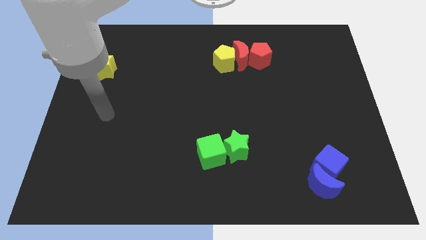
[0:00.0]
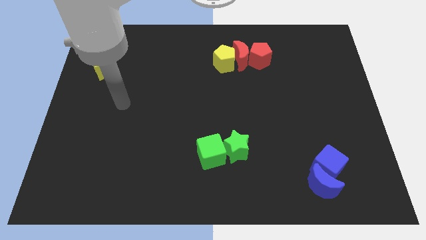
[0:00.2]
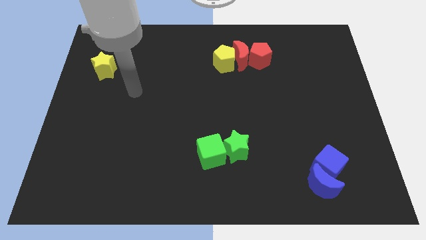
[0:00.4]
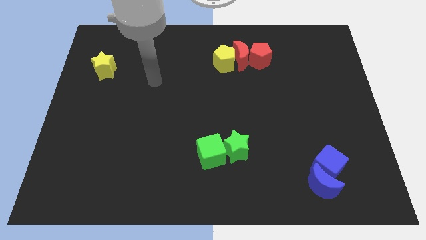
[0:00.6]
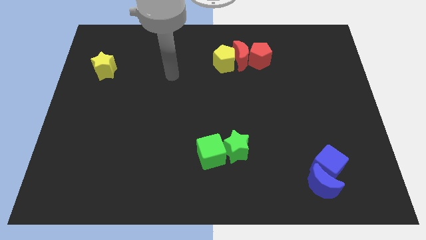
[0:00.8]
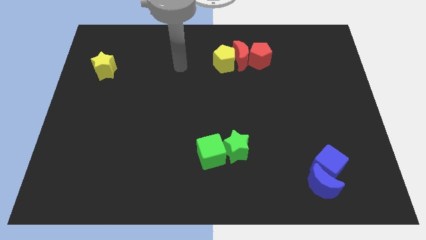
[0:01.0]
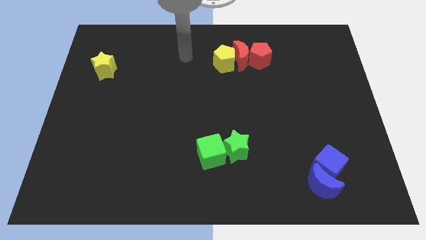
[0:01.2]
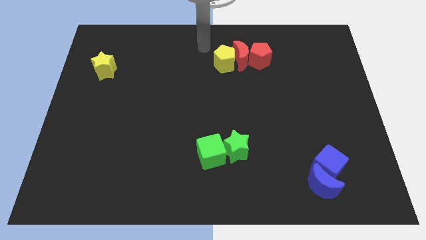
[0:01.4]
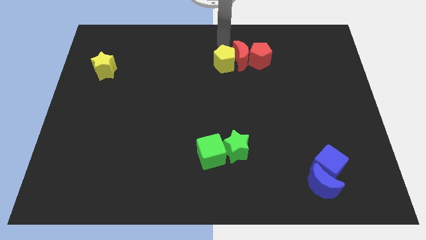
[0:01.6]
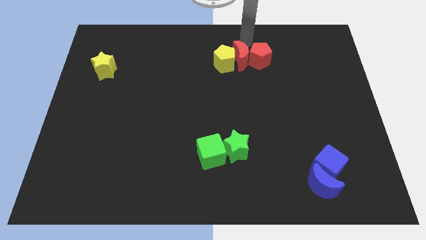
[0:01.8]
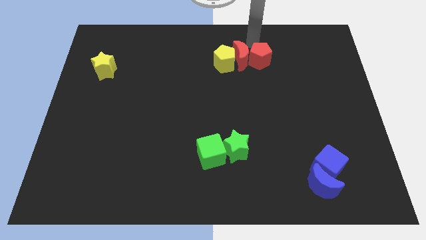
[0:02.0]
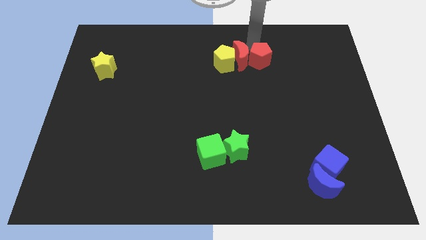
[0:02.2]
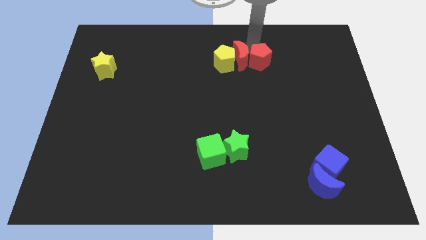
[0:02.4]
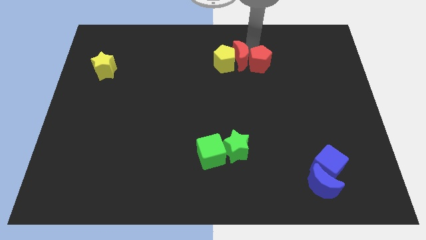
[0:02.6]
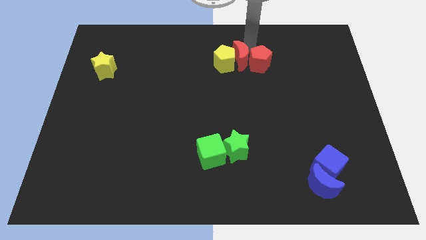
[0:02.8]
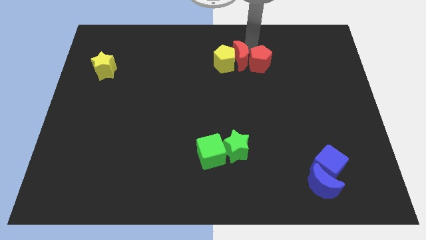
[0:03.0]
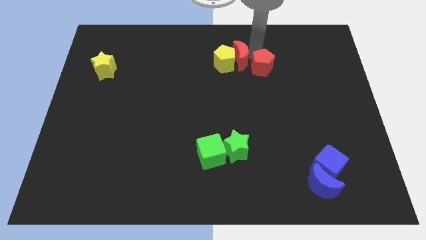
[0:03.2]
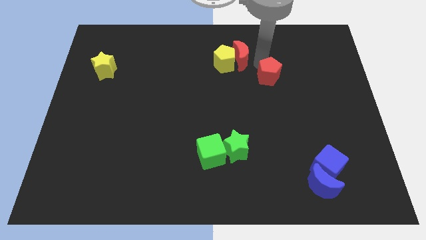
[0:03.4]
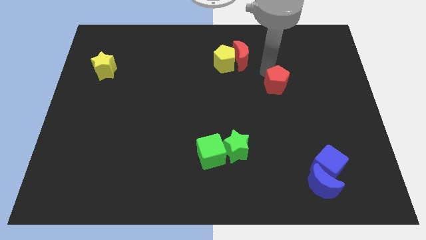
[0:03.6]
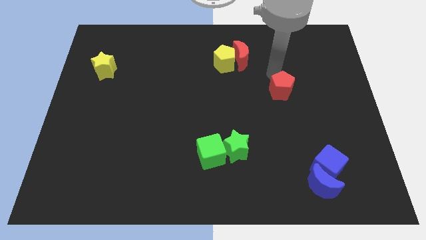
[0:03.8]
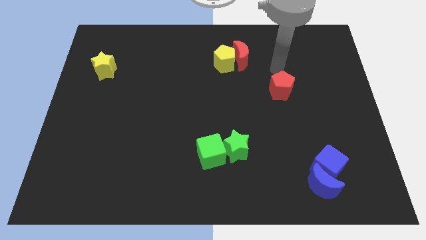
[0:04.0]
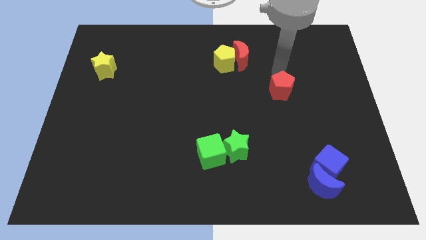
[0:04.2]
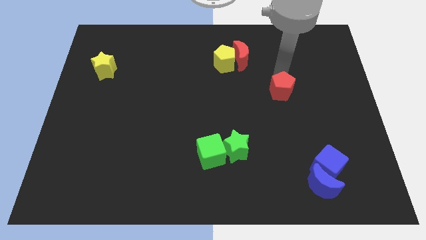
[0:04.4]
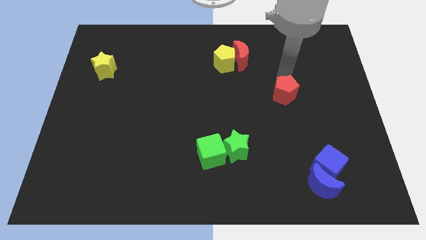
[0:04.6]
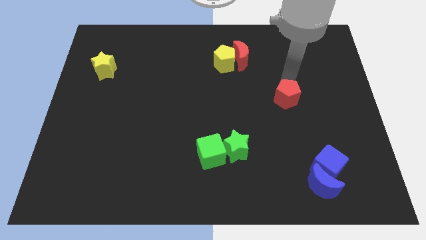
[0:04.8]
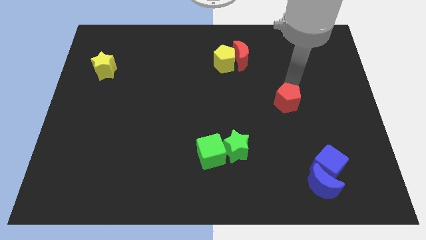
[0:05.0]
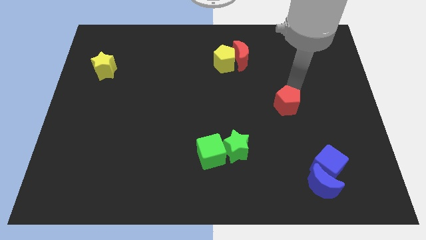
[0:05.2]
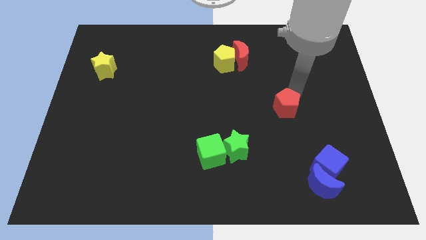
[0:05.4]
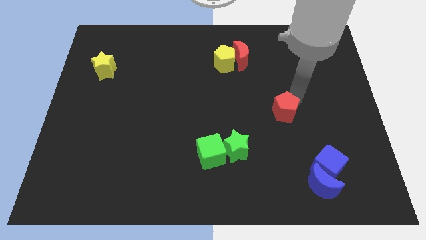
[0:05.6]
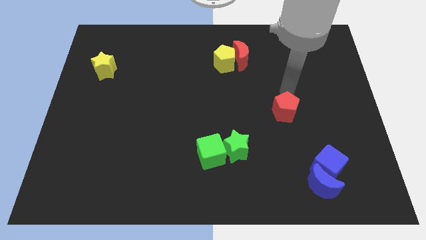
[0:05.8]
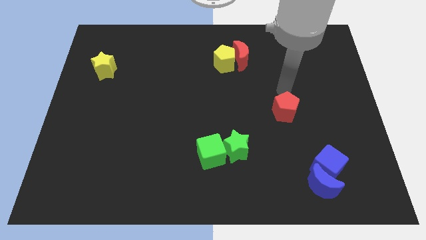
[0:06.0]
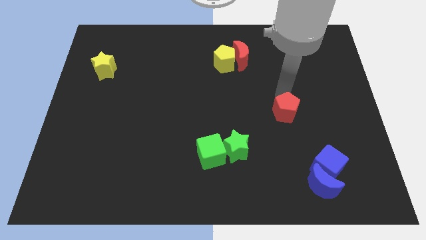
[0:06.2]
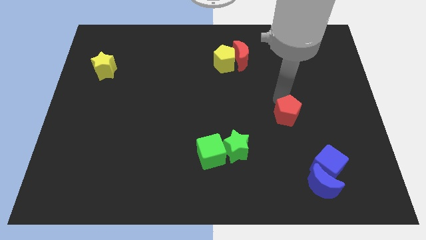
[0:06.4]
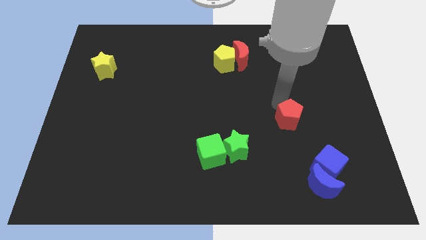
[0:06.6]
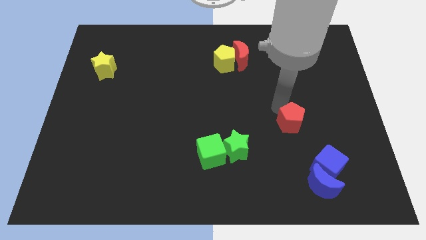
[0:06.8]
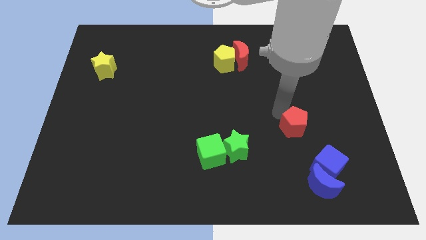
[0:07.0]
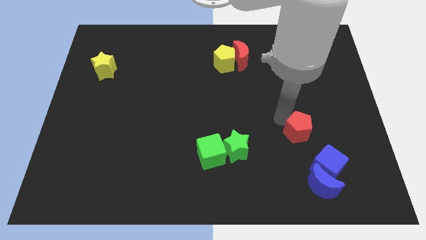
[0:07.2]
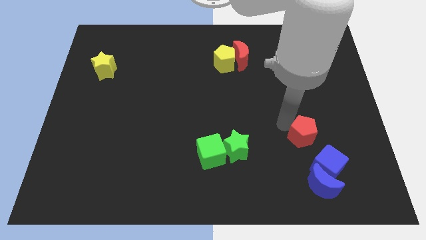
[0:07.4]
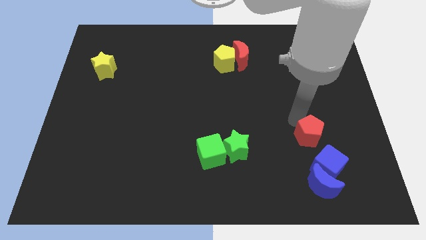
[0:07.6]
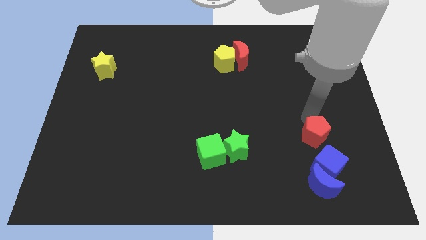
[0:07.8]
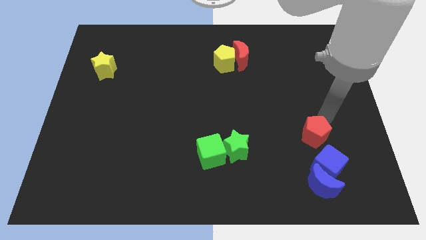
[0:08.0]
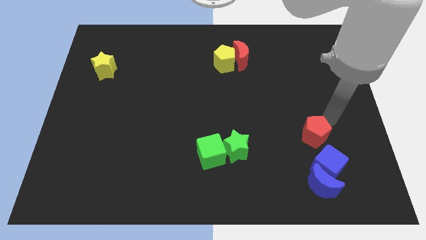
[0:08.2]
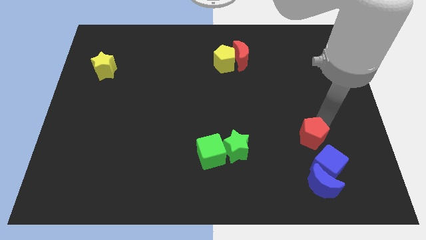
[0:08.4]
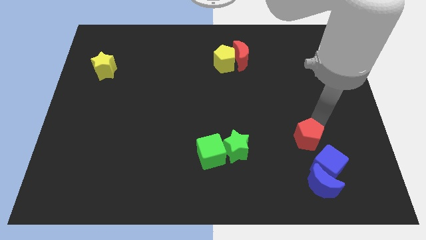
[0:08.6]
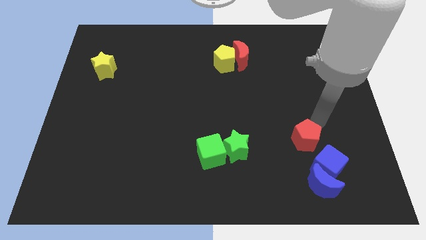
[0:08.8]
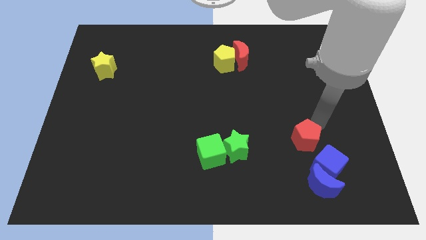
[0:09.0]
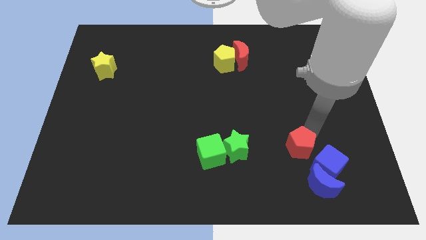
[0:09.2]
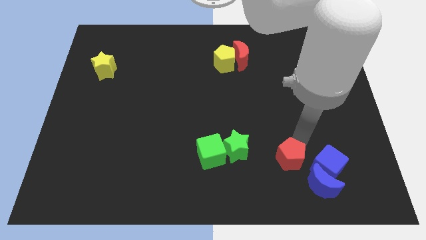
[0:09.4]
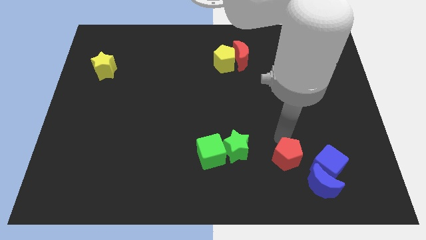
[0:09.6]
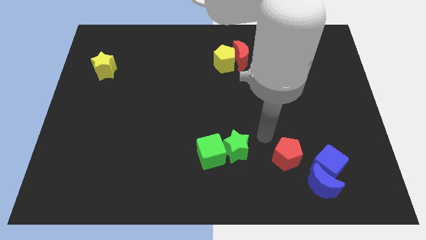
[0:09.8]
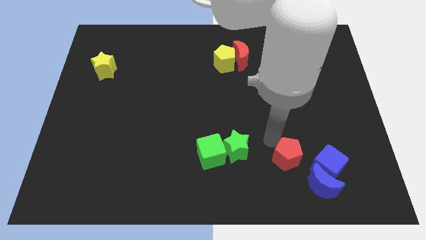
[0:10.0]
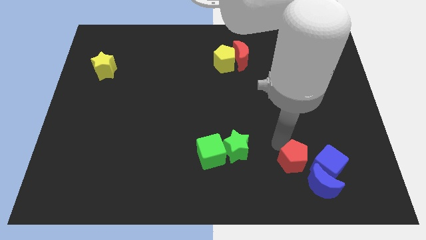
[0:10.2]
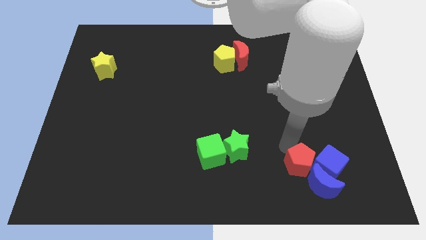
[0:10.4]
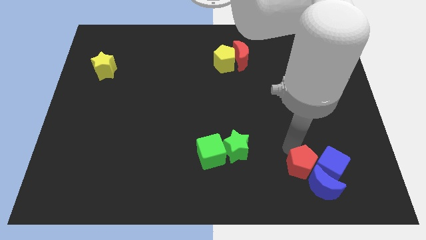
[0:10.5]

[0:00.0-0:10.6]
put the red pentagon close to the blue moon

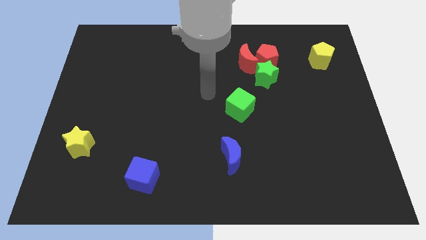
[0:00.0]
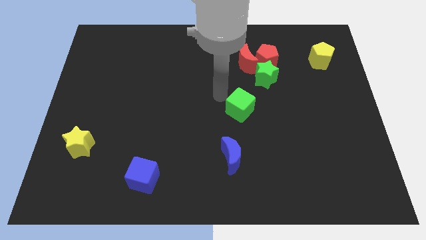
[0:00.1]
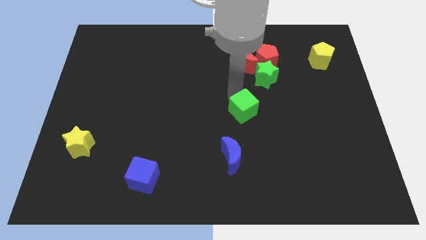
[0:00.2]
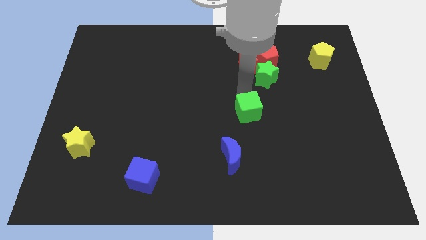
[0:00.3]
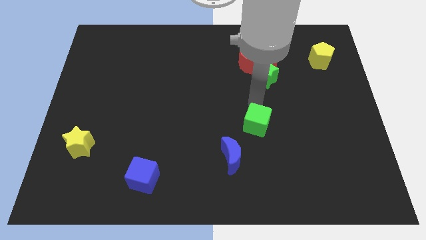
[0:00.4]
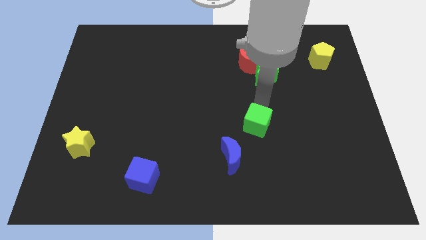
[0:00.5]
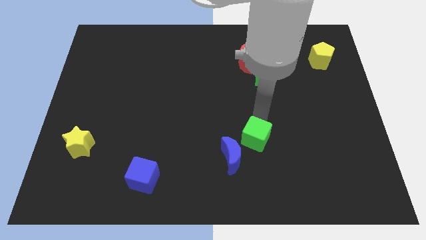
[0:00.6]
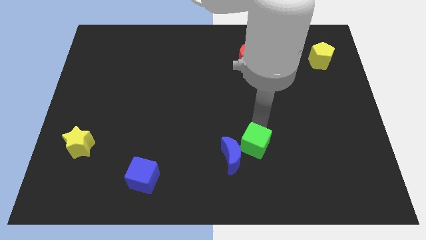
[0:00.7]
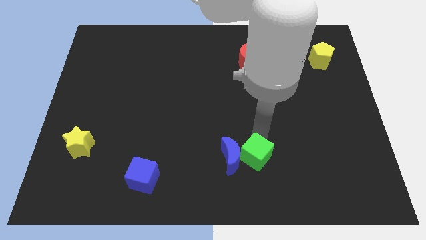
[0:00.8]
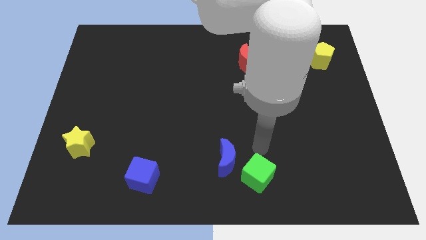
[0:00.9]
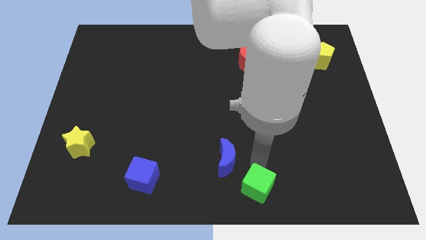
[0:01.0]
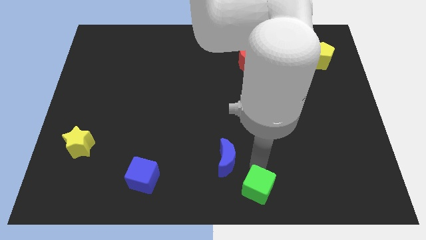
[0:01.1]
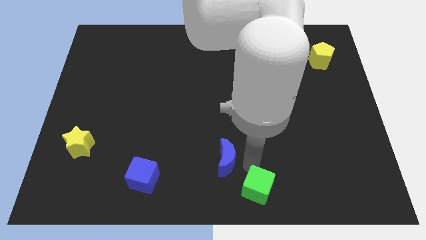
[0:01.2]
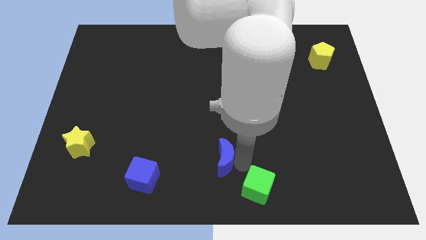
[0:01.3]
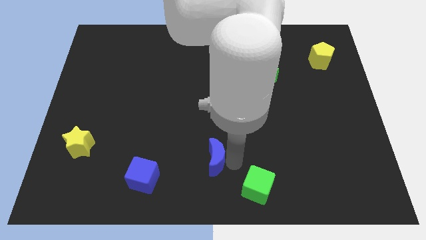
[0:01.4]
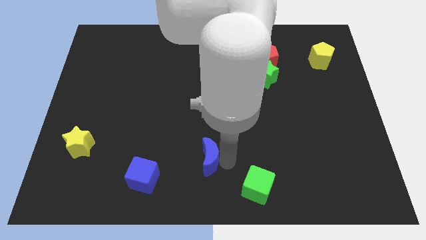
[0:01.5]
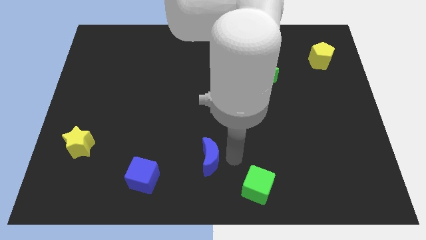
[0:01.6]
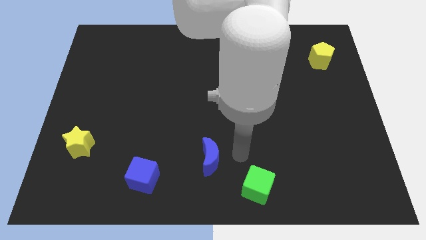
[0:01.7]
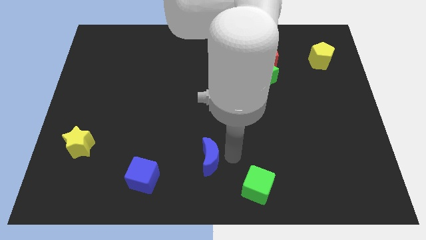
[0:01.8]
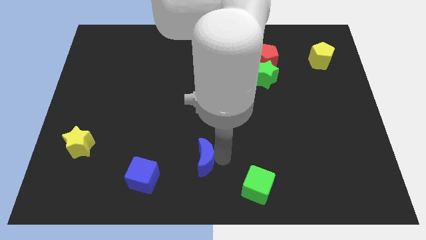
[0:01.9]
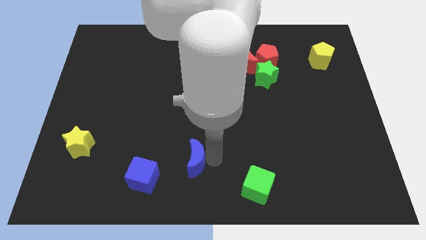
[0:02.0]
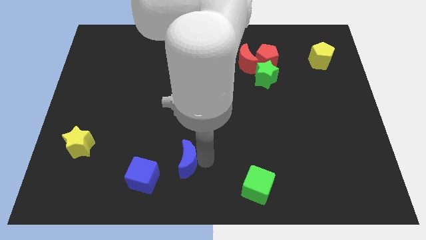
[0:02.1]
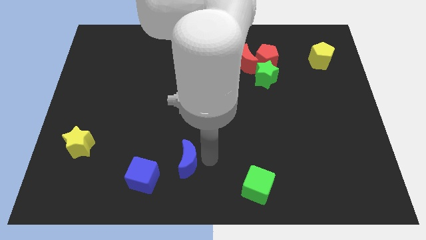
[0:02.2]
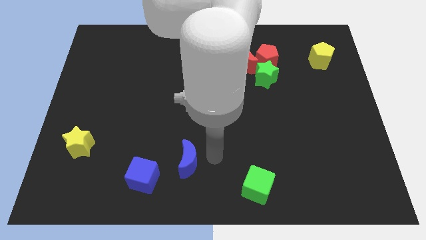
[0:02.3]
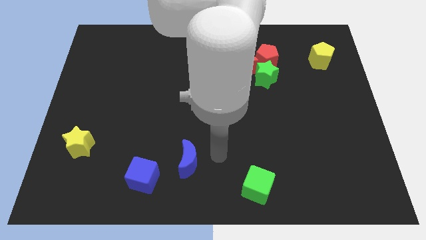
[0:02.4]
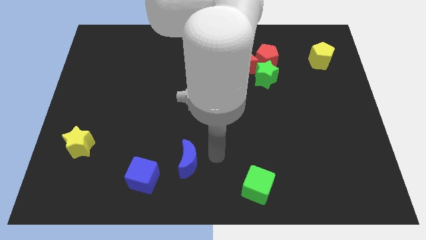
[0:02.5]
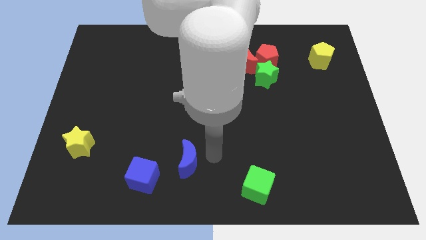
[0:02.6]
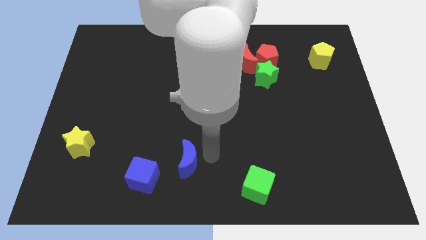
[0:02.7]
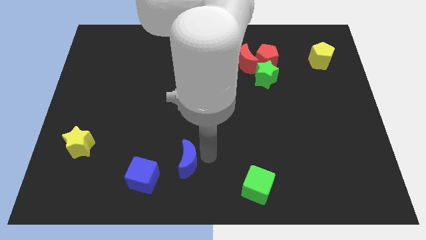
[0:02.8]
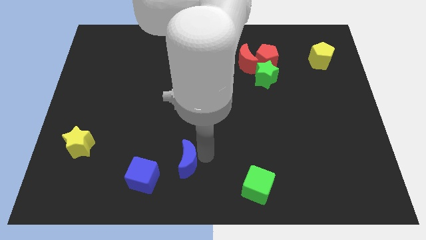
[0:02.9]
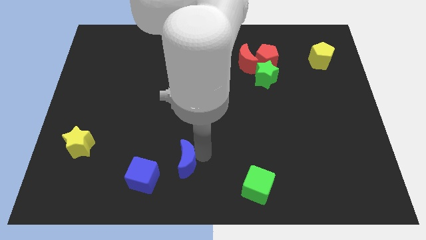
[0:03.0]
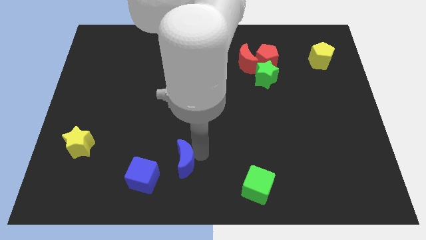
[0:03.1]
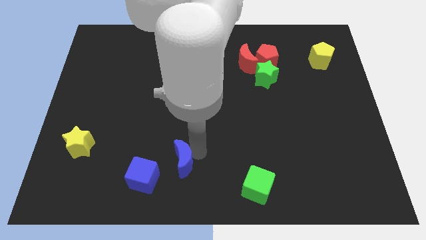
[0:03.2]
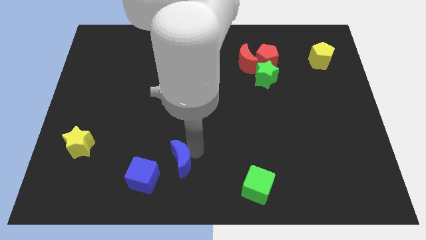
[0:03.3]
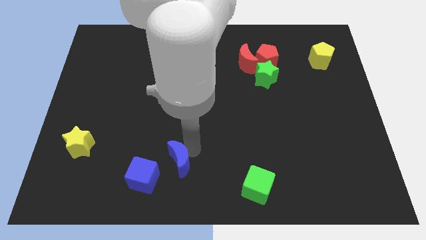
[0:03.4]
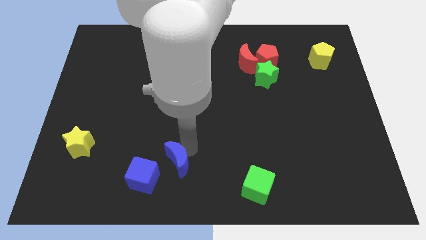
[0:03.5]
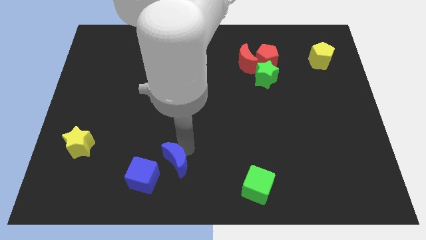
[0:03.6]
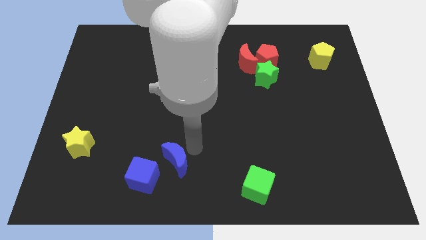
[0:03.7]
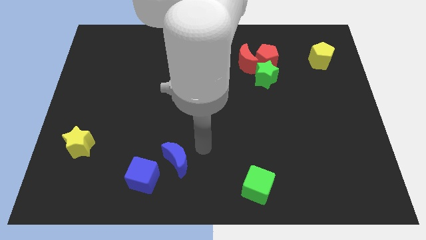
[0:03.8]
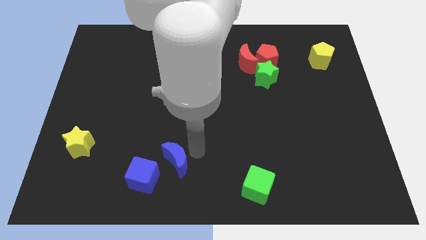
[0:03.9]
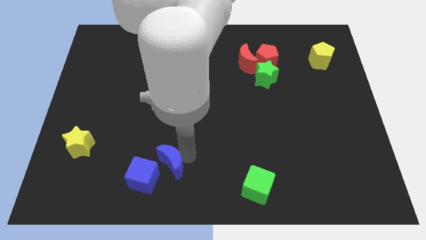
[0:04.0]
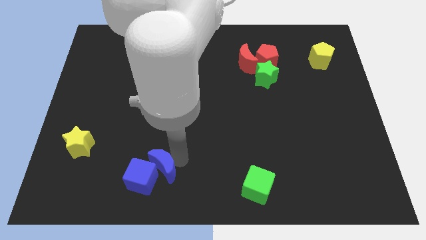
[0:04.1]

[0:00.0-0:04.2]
put the blue moon to the blue cube
